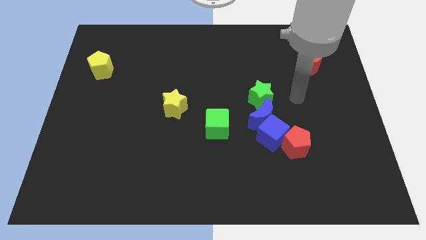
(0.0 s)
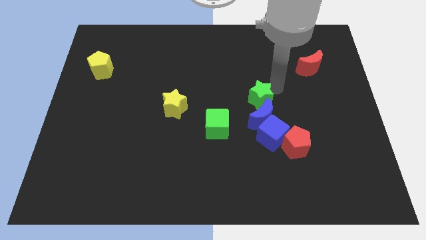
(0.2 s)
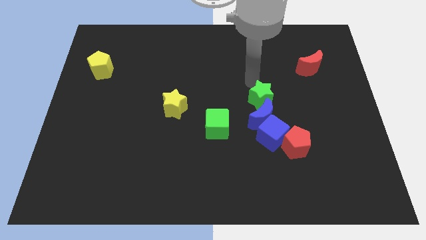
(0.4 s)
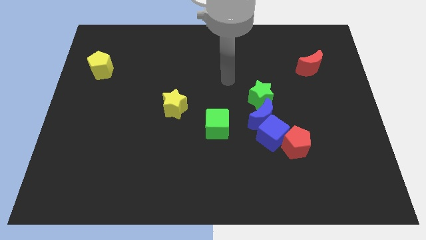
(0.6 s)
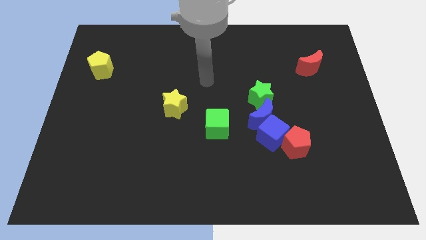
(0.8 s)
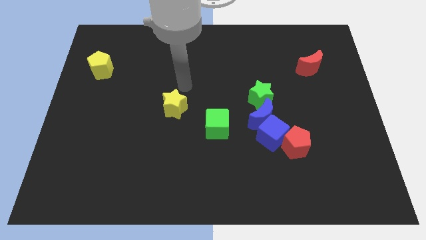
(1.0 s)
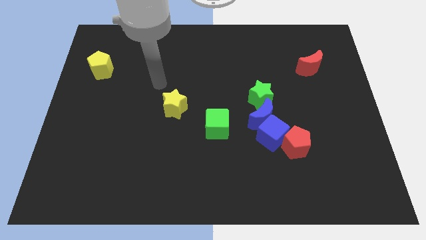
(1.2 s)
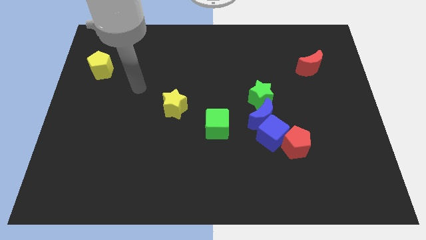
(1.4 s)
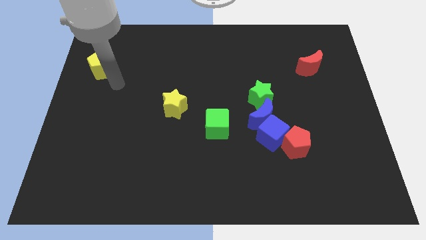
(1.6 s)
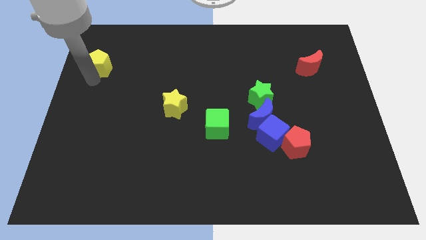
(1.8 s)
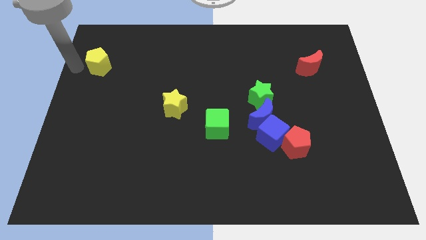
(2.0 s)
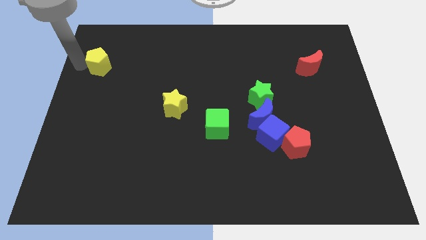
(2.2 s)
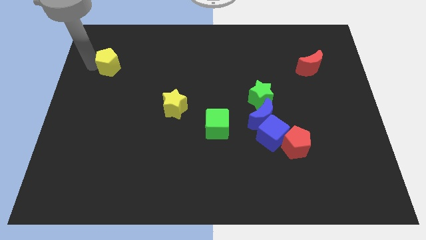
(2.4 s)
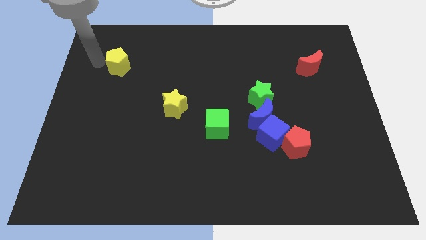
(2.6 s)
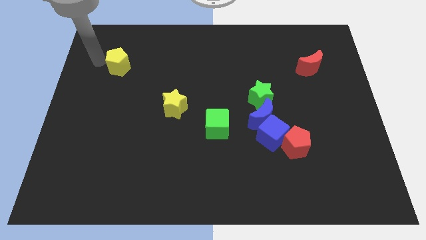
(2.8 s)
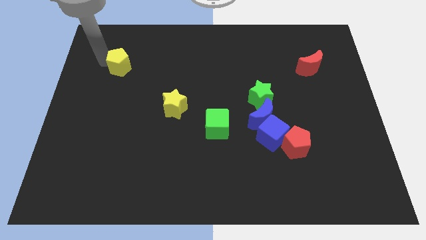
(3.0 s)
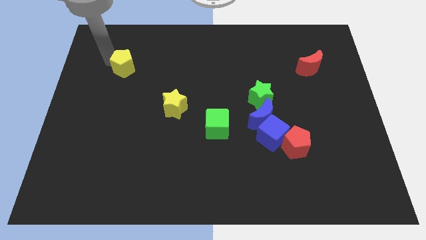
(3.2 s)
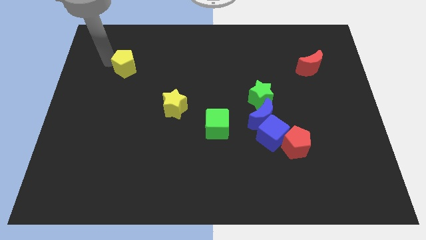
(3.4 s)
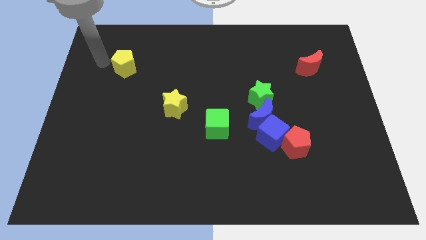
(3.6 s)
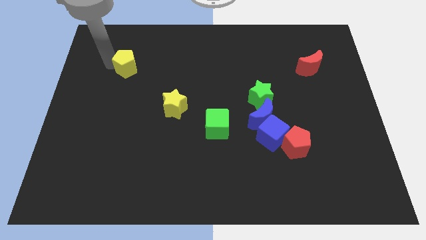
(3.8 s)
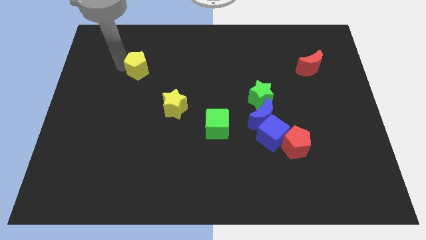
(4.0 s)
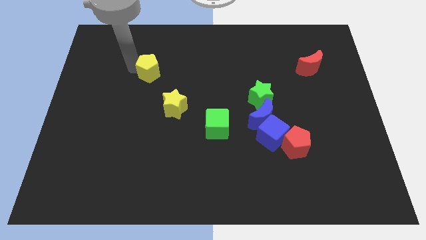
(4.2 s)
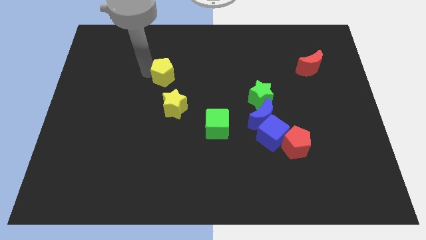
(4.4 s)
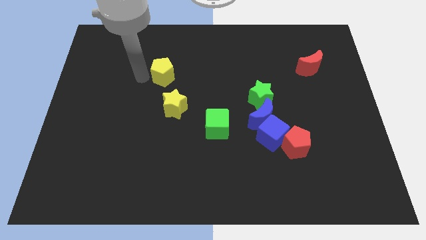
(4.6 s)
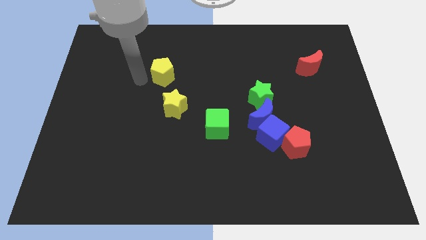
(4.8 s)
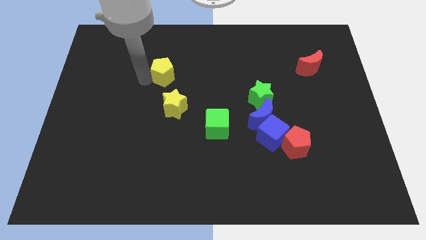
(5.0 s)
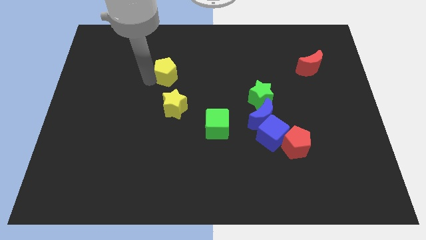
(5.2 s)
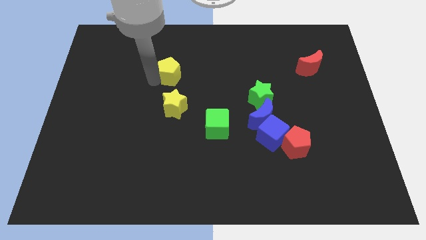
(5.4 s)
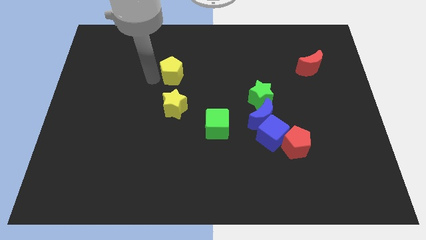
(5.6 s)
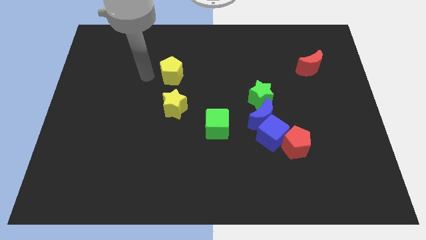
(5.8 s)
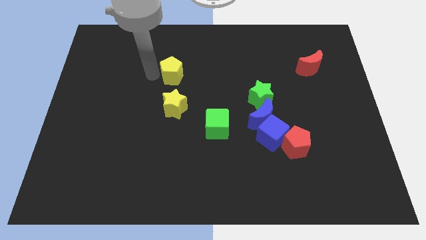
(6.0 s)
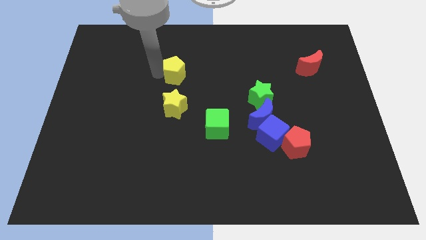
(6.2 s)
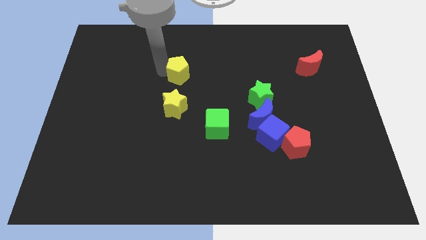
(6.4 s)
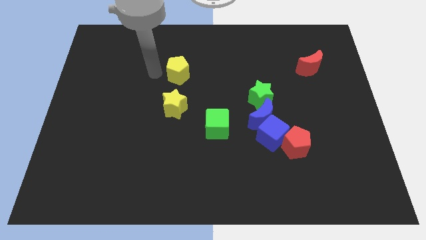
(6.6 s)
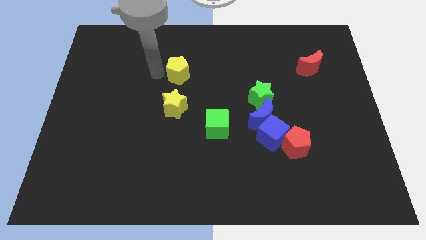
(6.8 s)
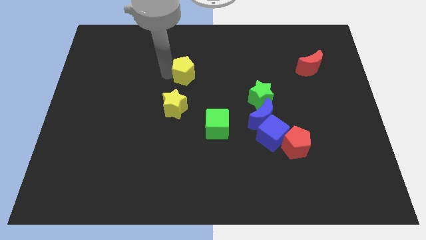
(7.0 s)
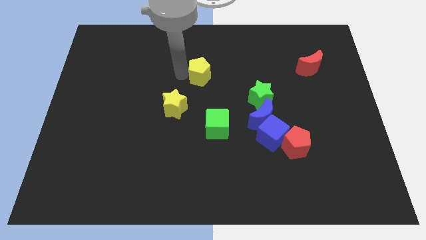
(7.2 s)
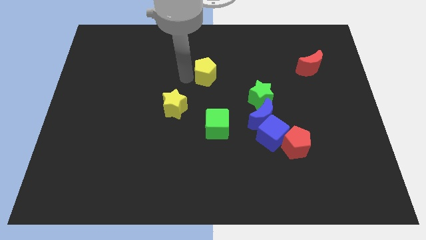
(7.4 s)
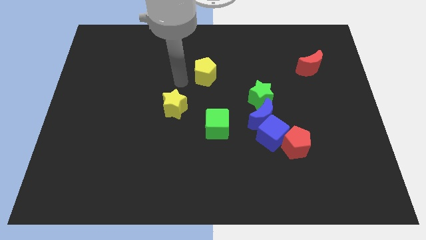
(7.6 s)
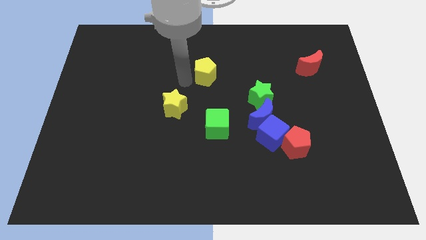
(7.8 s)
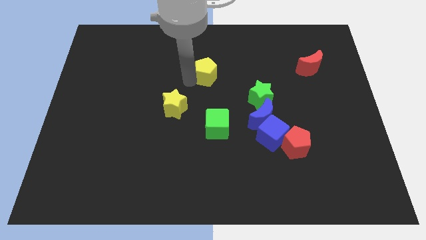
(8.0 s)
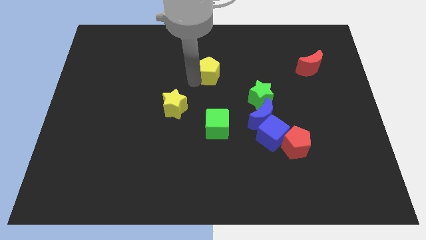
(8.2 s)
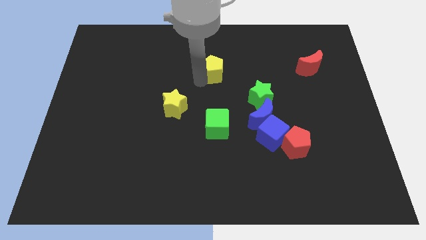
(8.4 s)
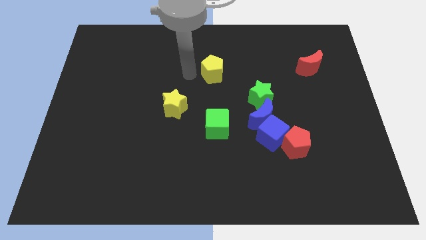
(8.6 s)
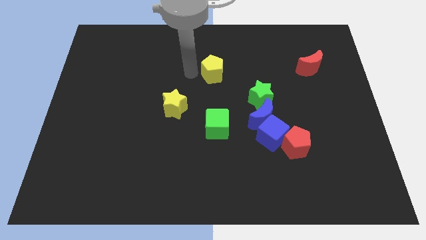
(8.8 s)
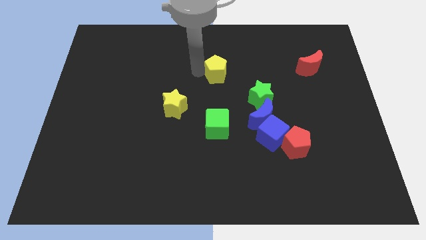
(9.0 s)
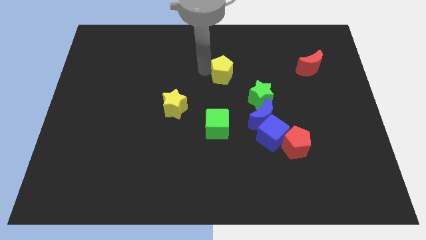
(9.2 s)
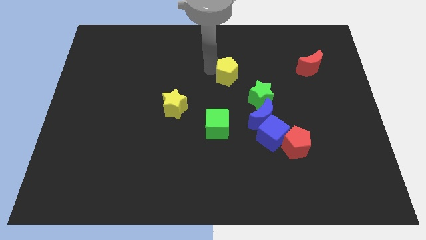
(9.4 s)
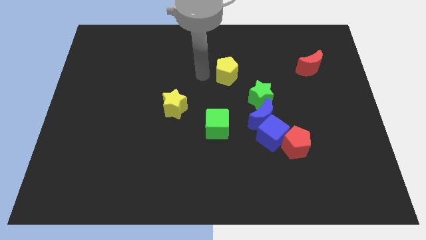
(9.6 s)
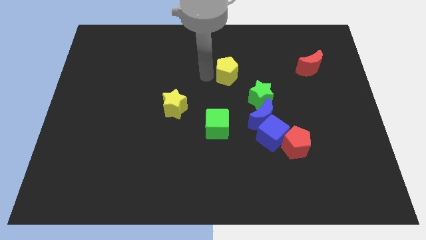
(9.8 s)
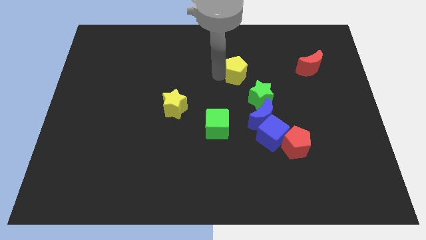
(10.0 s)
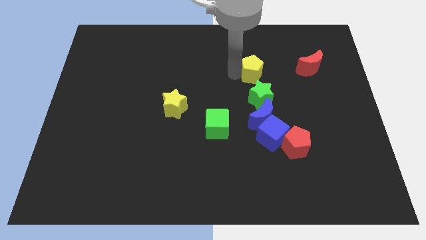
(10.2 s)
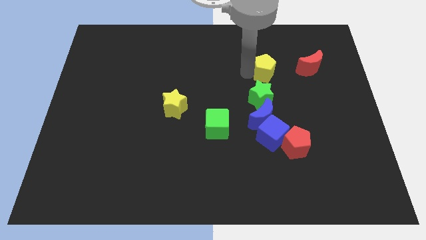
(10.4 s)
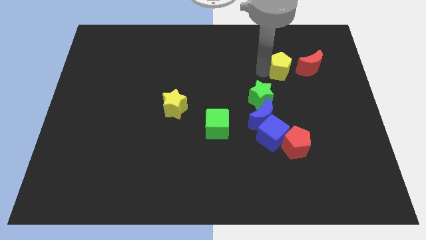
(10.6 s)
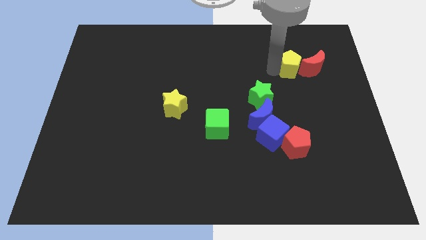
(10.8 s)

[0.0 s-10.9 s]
move the yellow pentagon close to the red moon

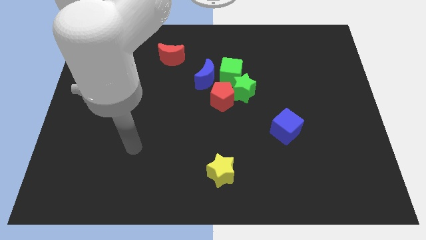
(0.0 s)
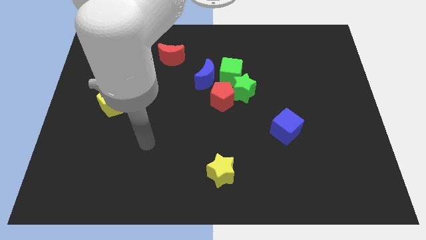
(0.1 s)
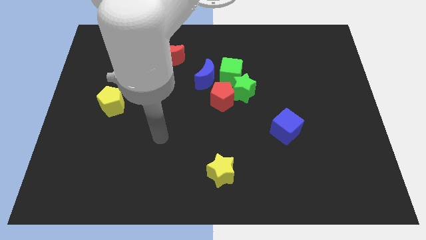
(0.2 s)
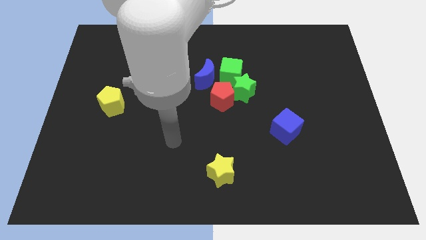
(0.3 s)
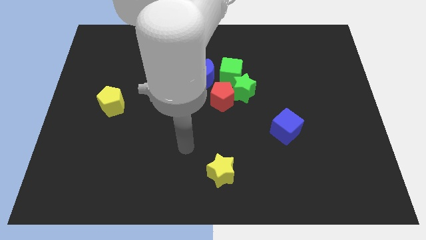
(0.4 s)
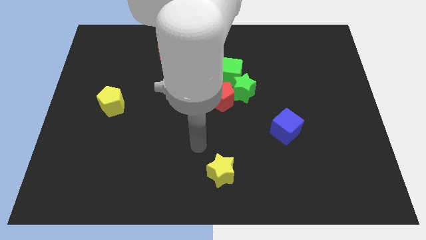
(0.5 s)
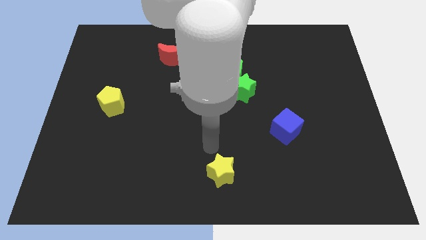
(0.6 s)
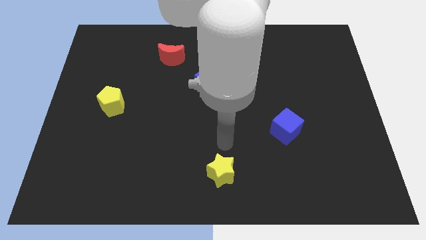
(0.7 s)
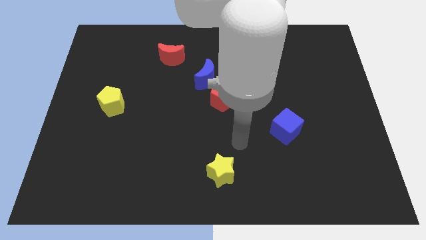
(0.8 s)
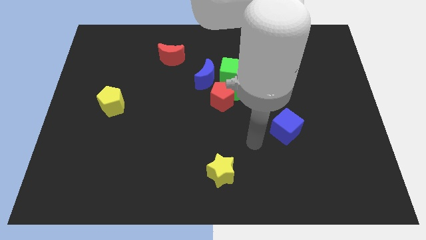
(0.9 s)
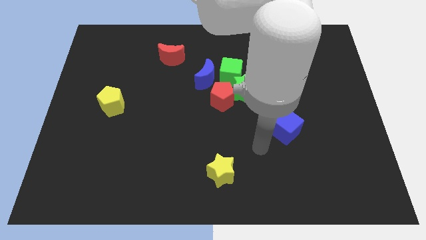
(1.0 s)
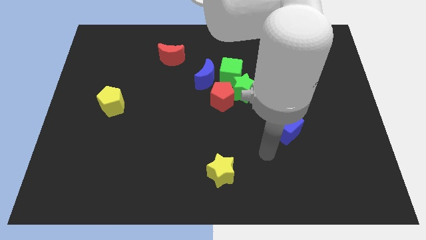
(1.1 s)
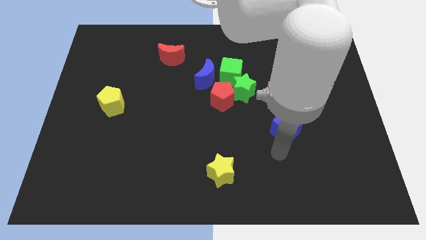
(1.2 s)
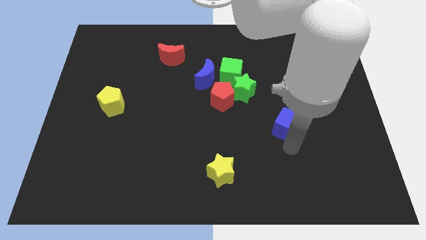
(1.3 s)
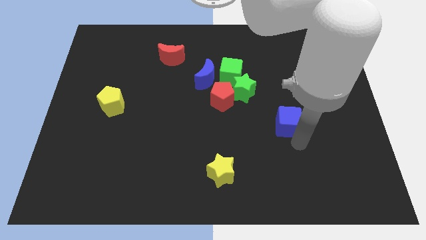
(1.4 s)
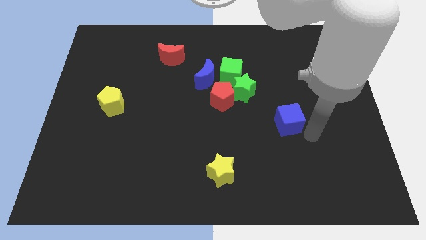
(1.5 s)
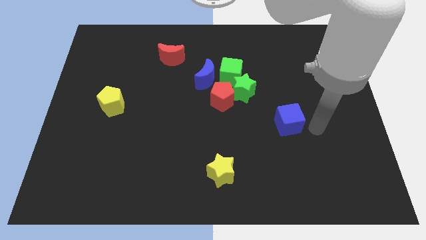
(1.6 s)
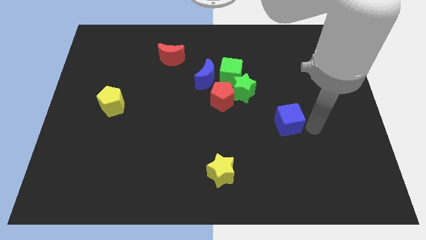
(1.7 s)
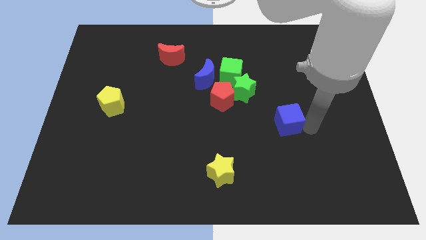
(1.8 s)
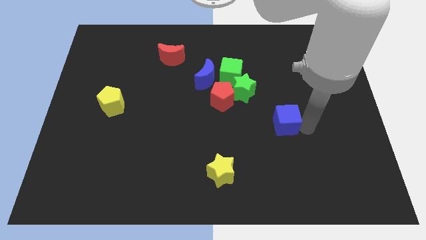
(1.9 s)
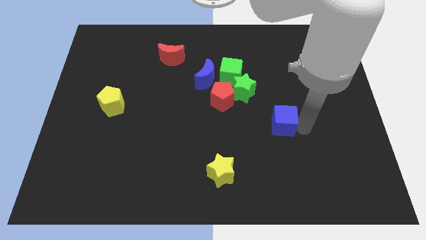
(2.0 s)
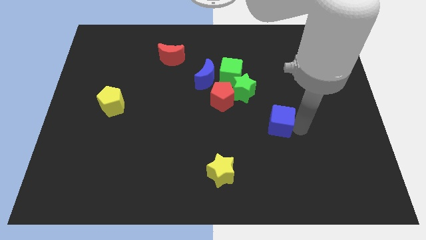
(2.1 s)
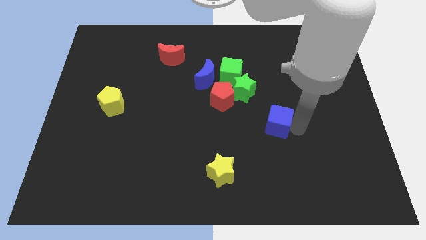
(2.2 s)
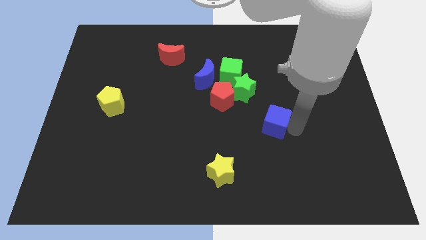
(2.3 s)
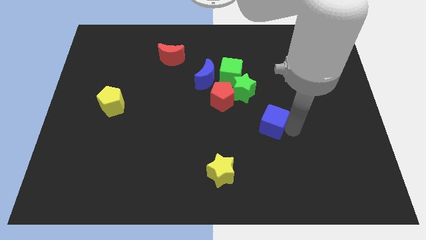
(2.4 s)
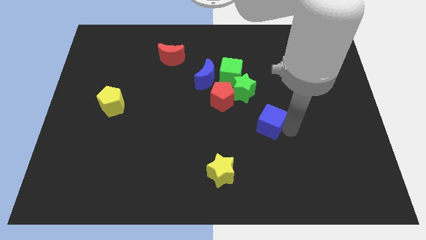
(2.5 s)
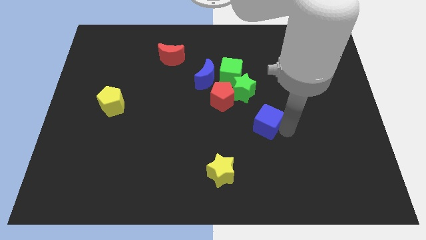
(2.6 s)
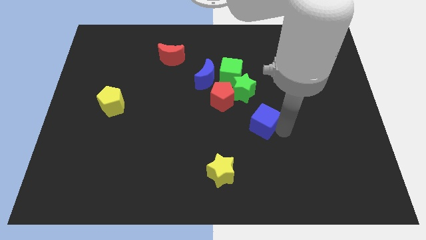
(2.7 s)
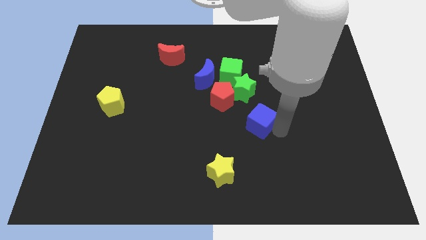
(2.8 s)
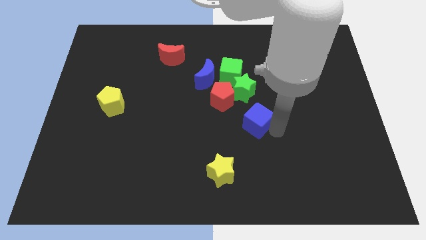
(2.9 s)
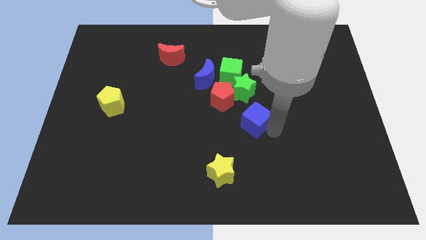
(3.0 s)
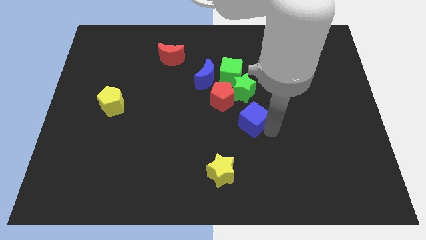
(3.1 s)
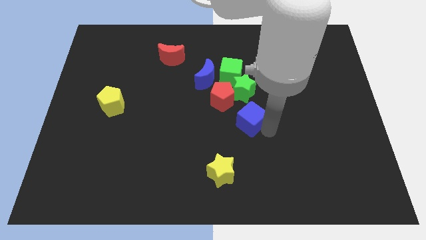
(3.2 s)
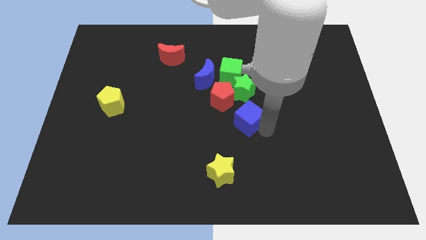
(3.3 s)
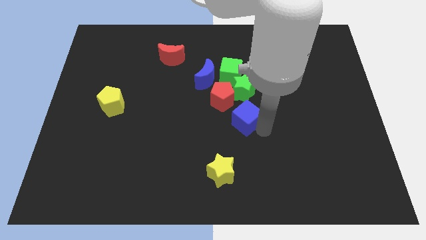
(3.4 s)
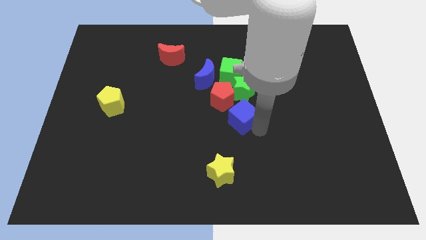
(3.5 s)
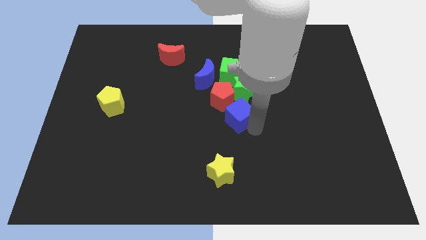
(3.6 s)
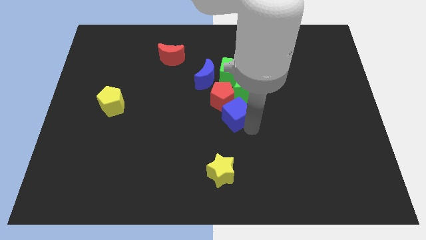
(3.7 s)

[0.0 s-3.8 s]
slide the blue cube to the red pentagon
